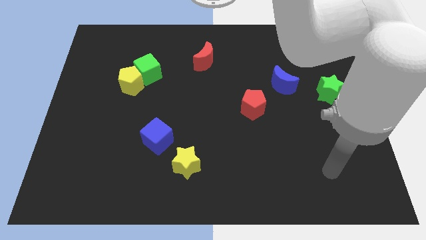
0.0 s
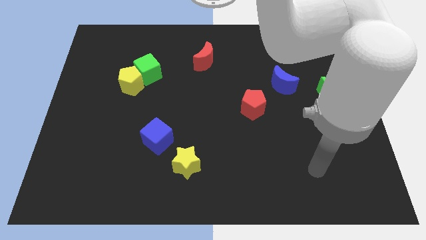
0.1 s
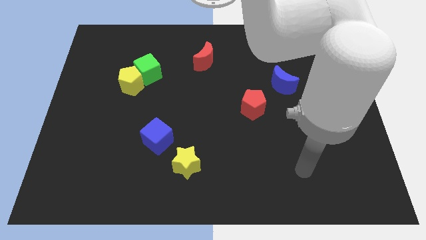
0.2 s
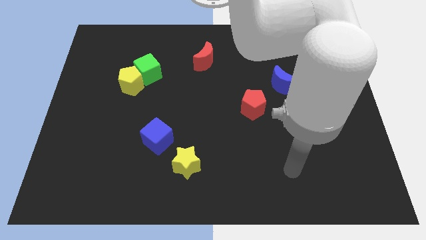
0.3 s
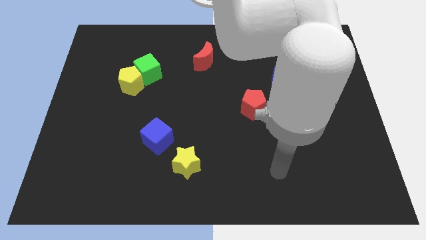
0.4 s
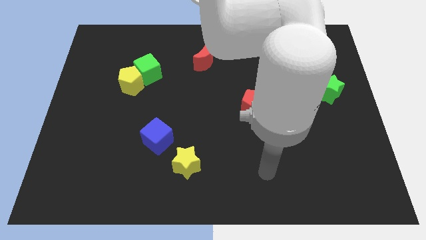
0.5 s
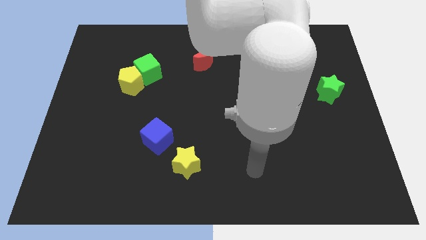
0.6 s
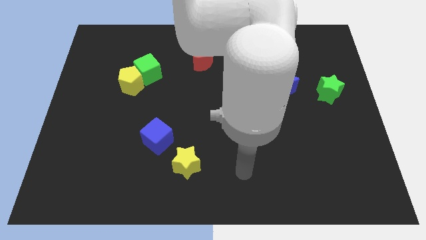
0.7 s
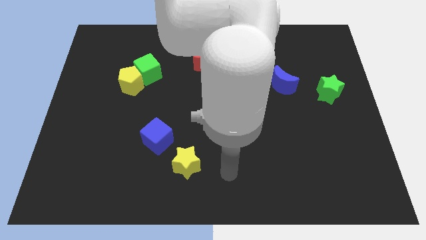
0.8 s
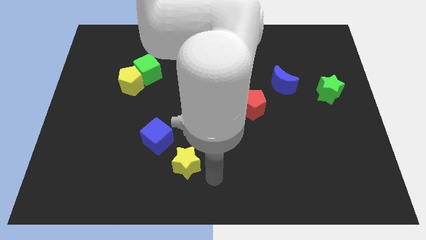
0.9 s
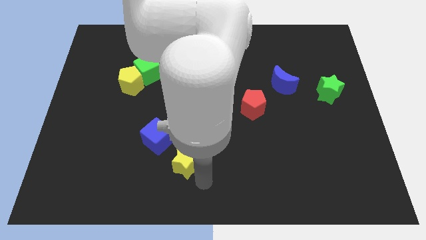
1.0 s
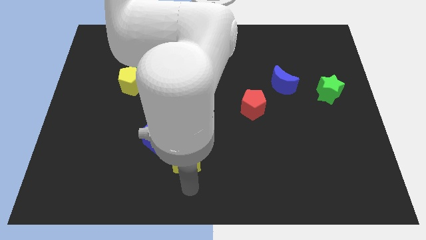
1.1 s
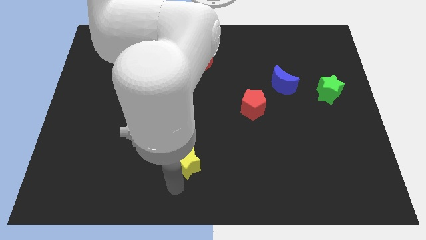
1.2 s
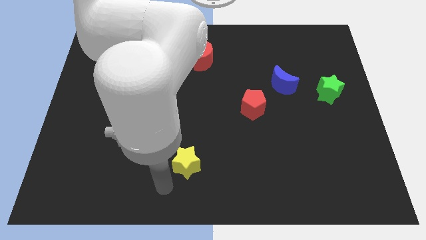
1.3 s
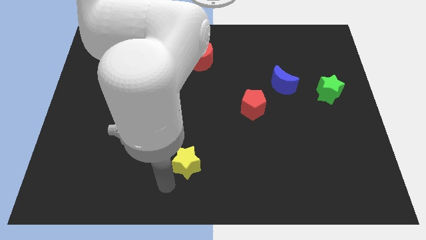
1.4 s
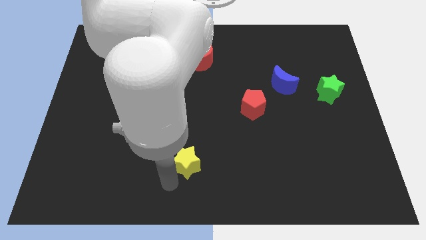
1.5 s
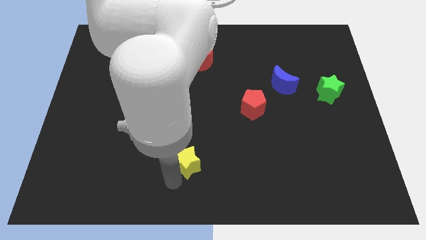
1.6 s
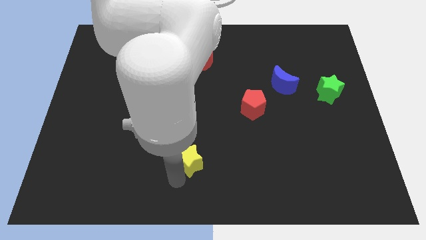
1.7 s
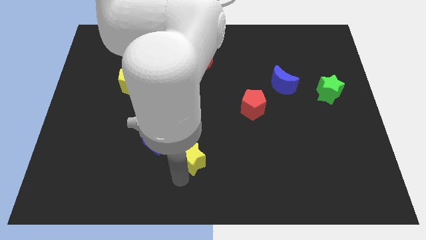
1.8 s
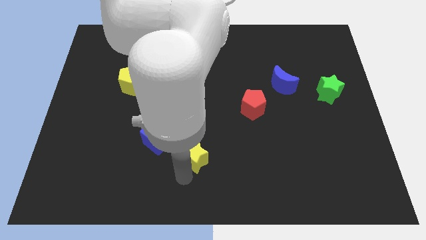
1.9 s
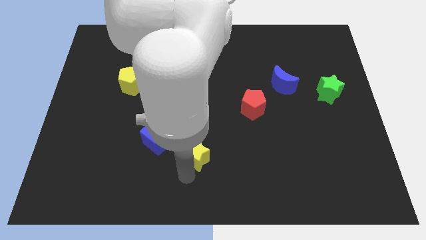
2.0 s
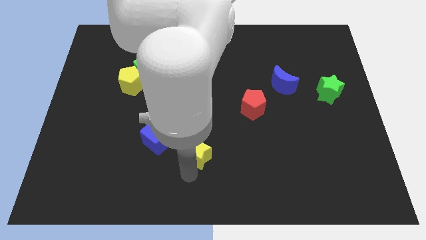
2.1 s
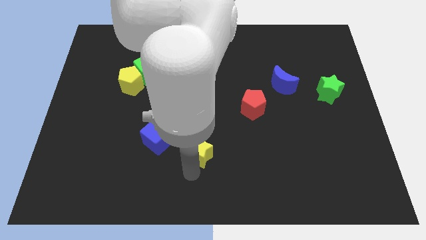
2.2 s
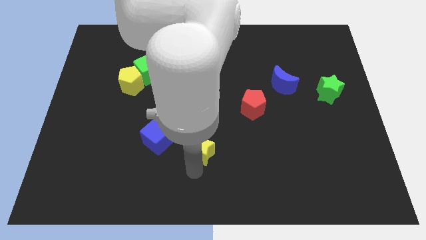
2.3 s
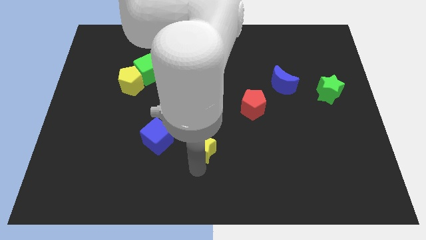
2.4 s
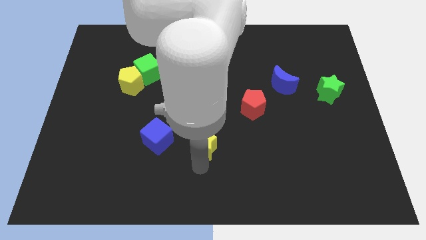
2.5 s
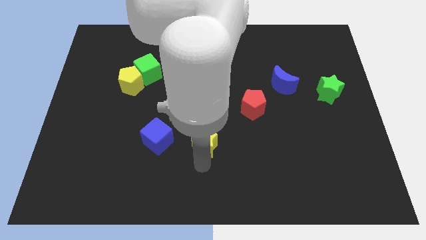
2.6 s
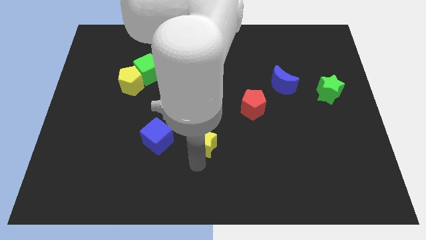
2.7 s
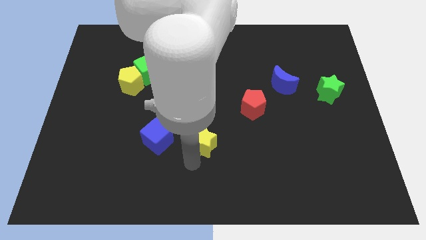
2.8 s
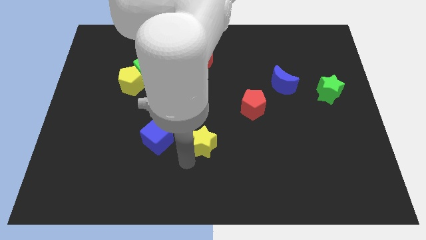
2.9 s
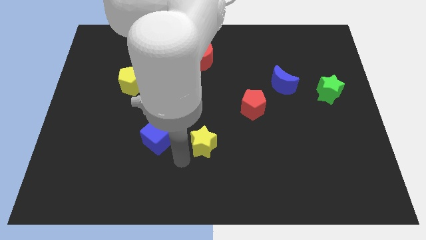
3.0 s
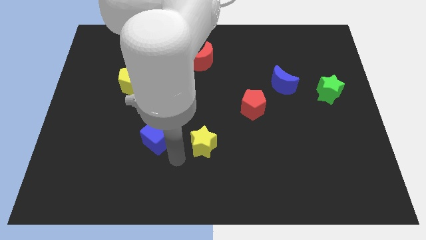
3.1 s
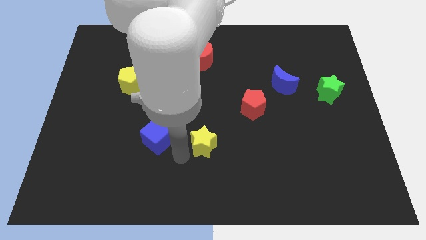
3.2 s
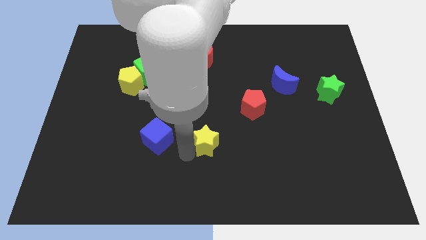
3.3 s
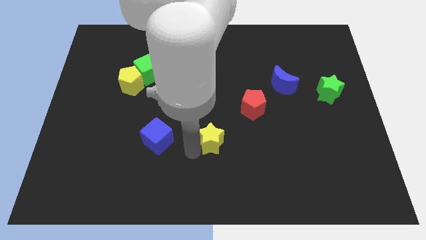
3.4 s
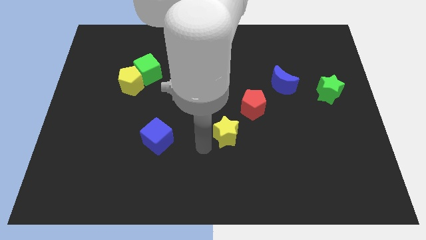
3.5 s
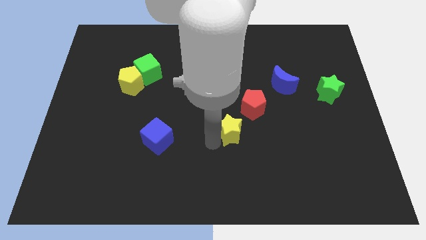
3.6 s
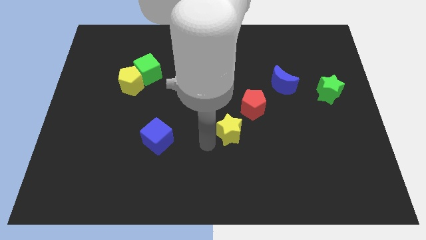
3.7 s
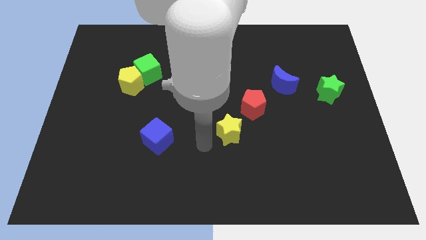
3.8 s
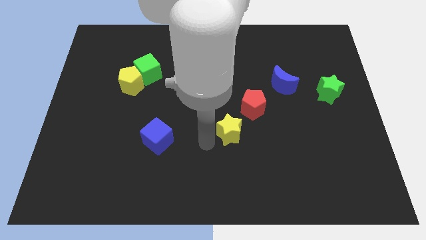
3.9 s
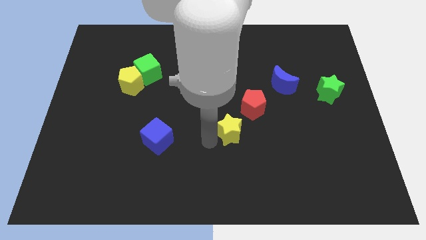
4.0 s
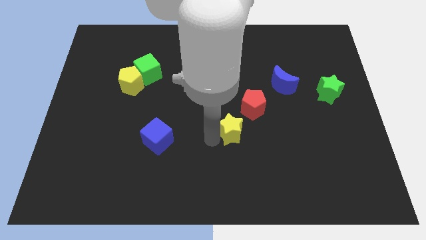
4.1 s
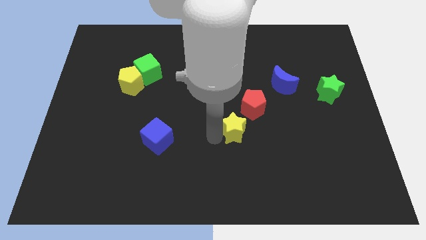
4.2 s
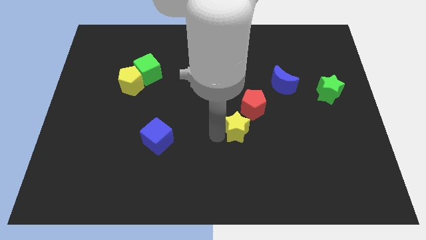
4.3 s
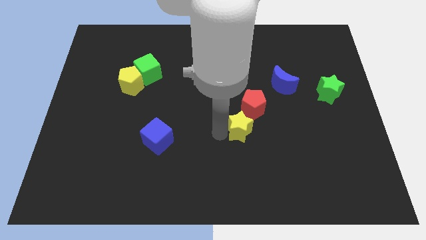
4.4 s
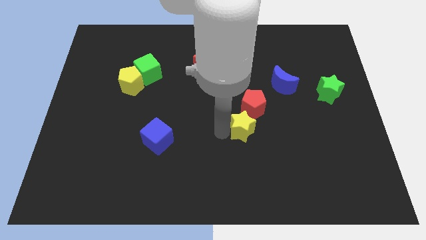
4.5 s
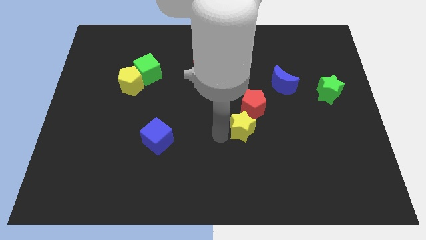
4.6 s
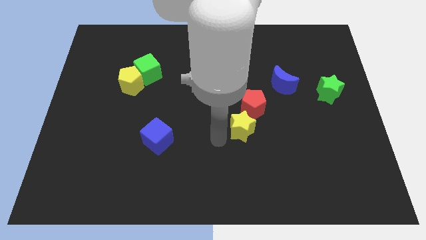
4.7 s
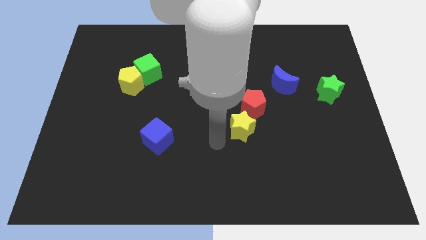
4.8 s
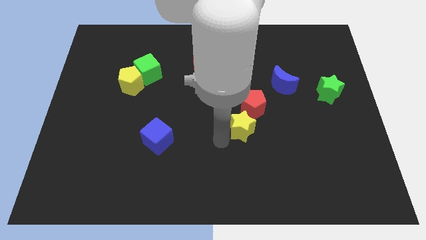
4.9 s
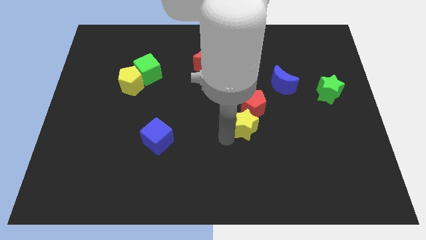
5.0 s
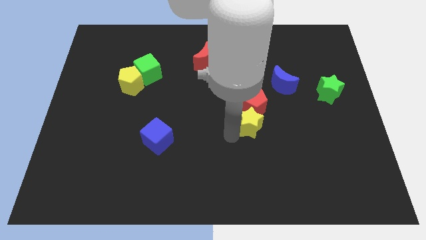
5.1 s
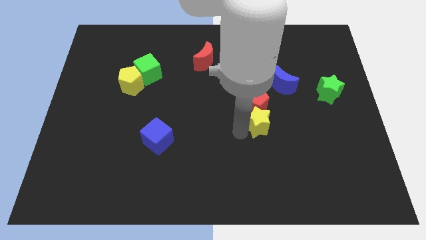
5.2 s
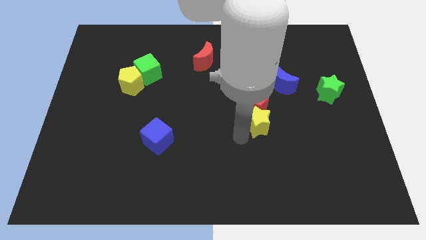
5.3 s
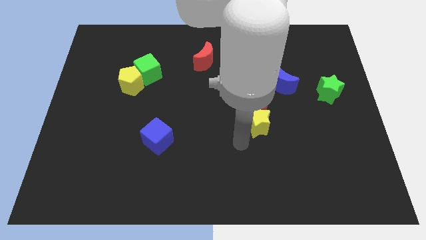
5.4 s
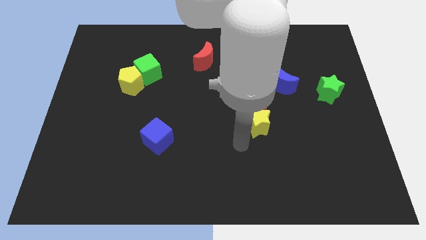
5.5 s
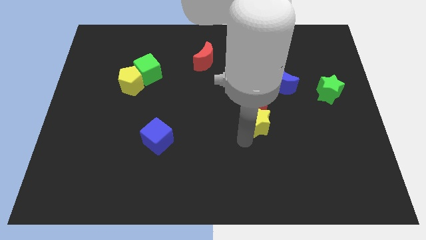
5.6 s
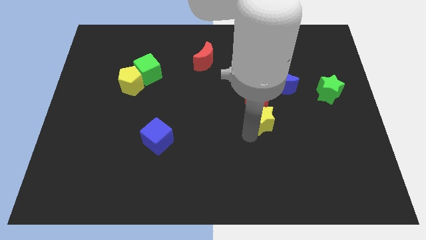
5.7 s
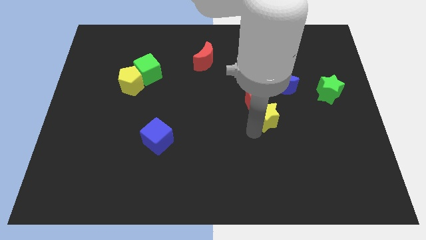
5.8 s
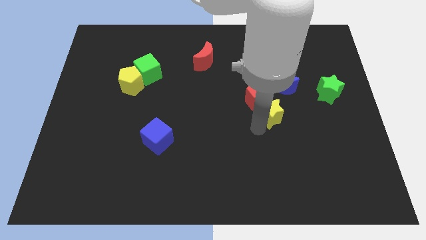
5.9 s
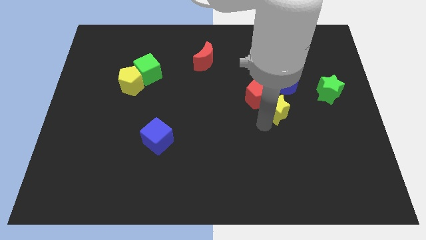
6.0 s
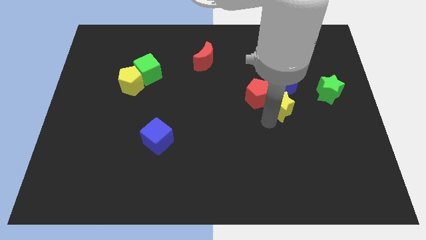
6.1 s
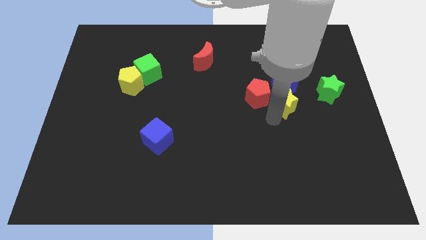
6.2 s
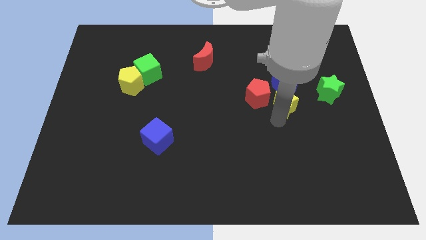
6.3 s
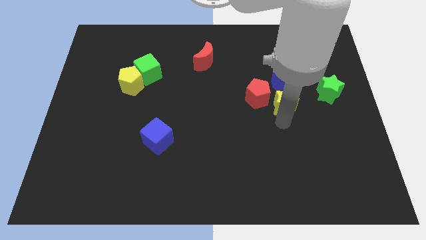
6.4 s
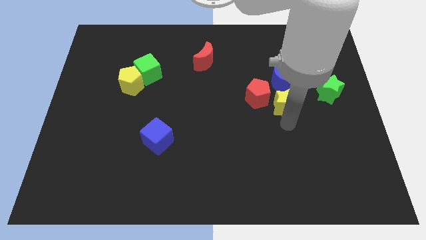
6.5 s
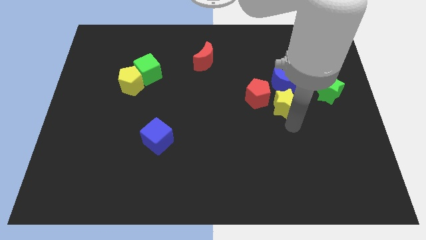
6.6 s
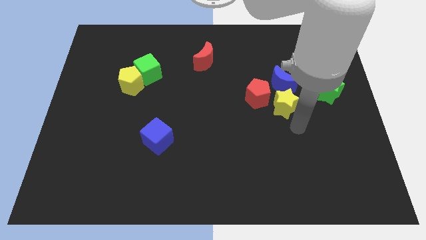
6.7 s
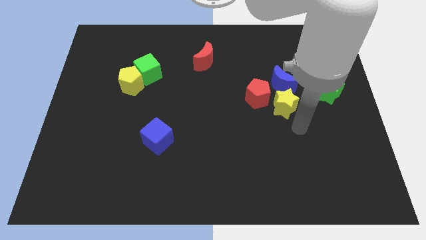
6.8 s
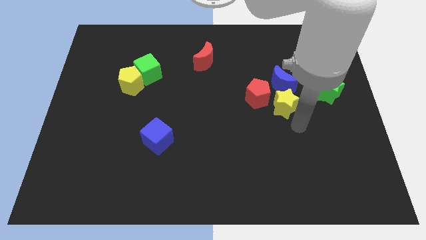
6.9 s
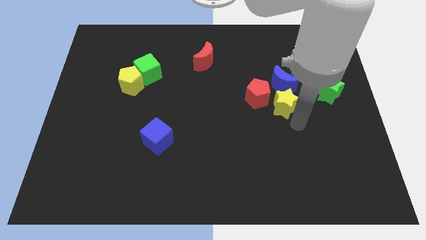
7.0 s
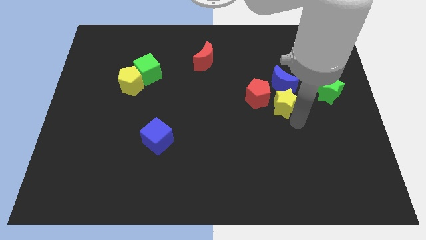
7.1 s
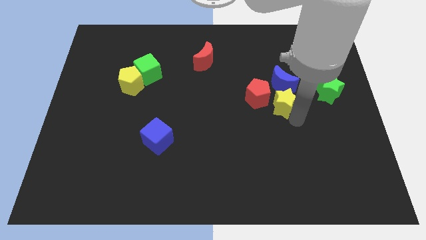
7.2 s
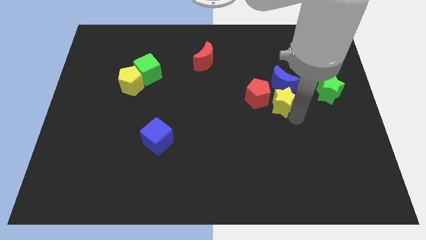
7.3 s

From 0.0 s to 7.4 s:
put the yellow star towards the blue moon
